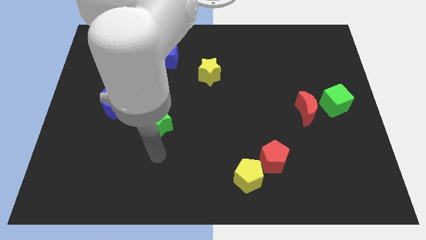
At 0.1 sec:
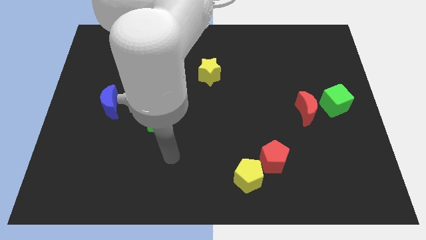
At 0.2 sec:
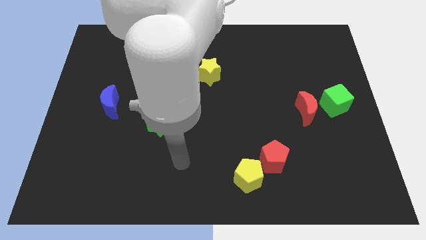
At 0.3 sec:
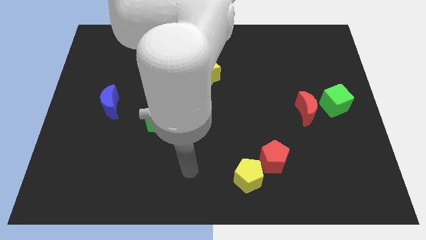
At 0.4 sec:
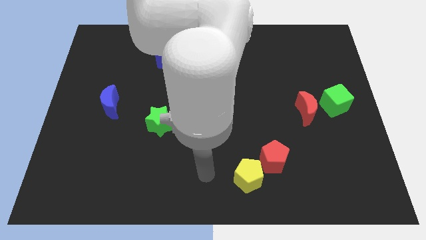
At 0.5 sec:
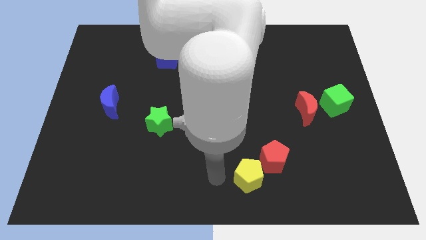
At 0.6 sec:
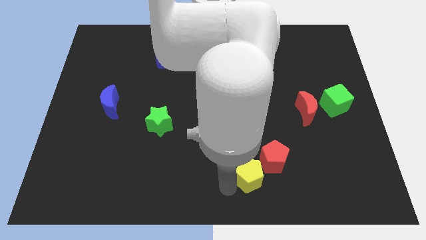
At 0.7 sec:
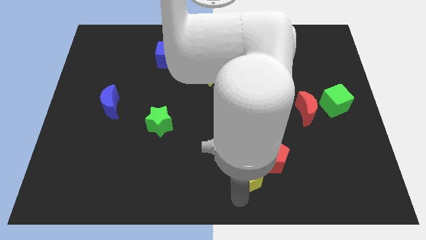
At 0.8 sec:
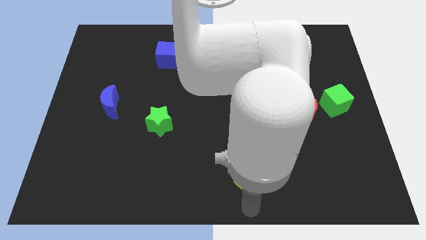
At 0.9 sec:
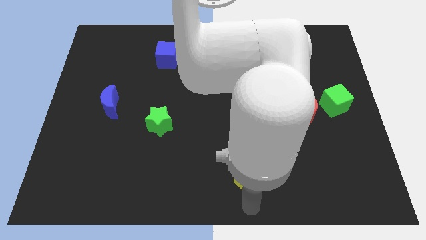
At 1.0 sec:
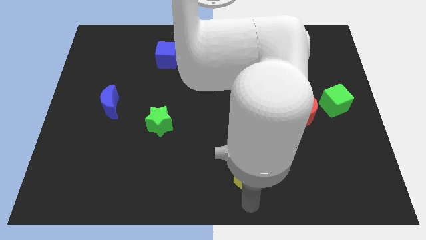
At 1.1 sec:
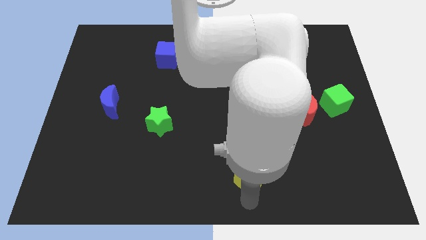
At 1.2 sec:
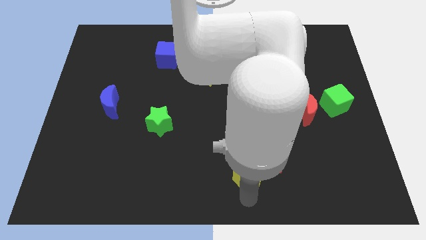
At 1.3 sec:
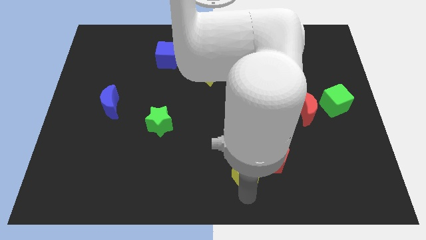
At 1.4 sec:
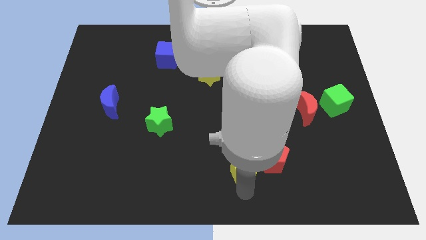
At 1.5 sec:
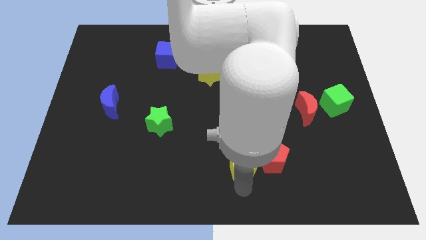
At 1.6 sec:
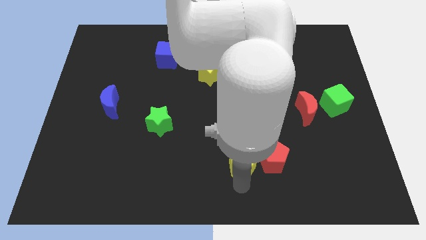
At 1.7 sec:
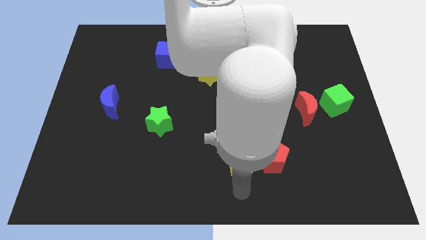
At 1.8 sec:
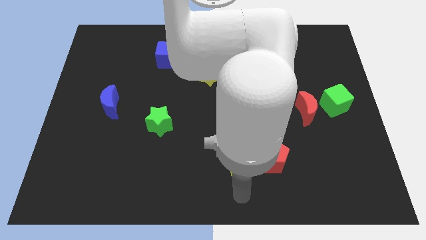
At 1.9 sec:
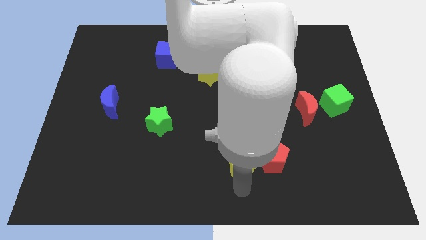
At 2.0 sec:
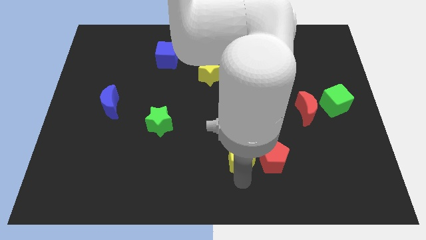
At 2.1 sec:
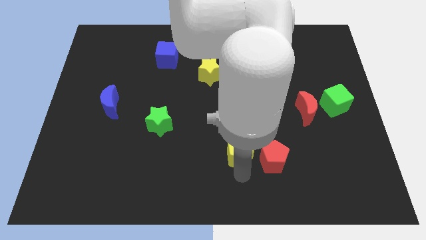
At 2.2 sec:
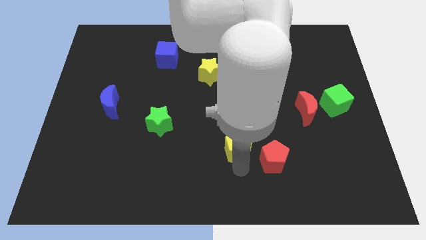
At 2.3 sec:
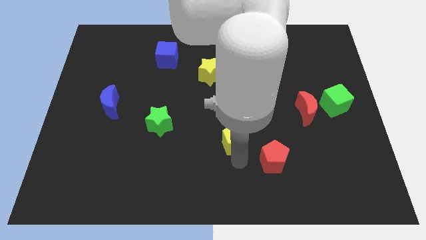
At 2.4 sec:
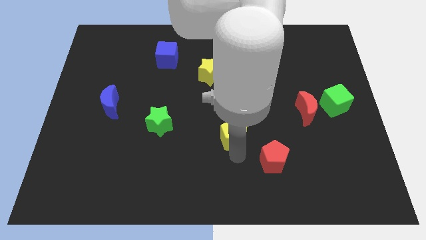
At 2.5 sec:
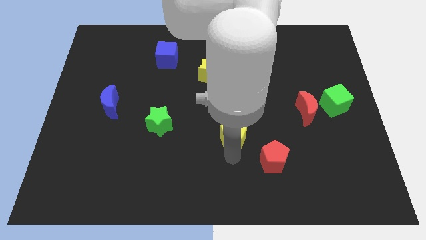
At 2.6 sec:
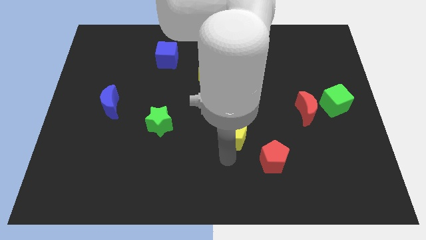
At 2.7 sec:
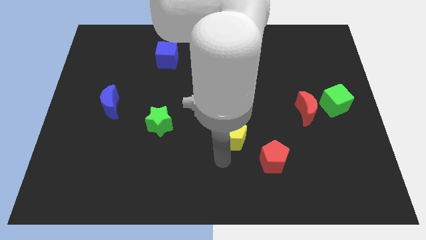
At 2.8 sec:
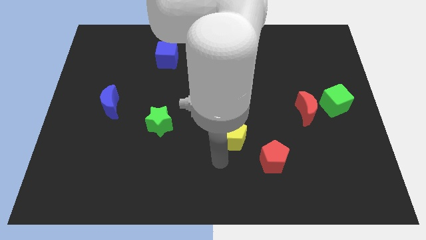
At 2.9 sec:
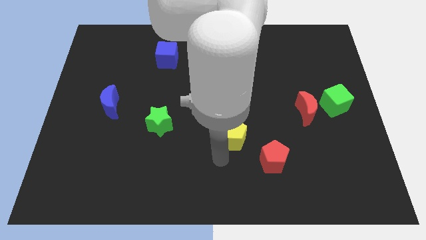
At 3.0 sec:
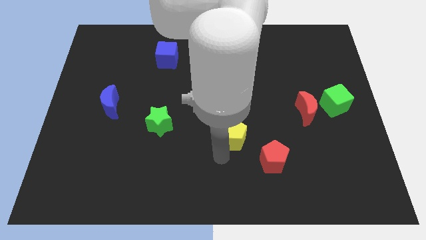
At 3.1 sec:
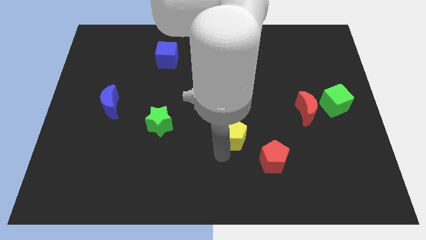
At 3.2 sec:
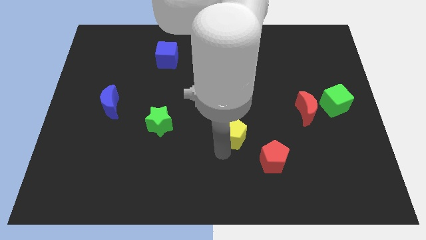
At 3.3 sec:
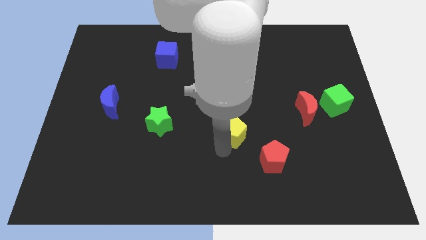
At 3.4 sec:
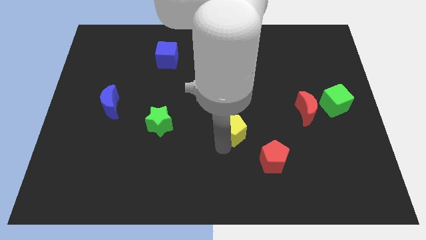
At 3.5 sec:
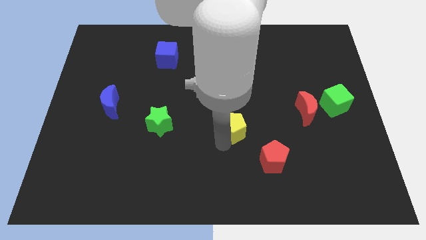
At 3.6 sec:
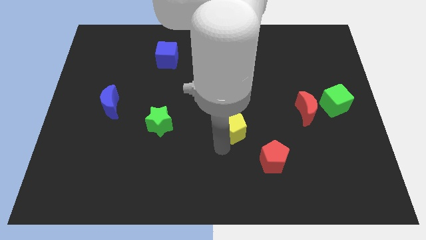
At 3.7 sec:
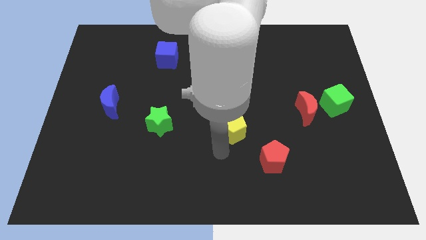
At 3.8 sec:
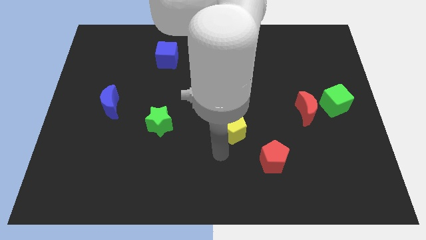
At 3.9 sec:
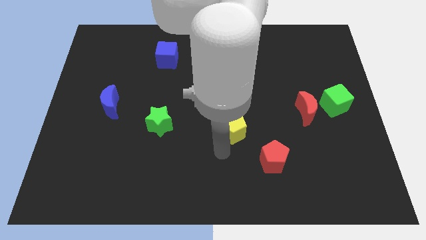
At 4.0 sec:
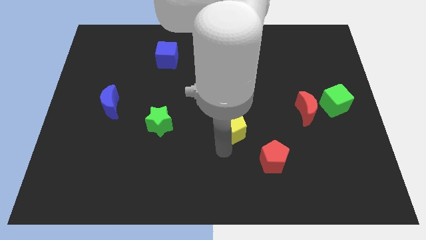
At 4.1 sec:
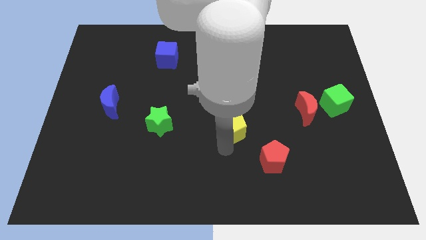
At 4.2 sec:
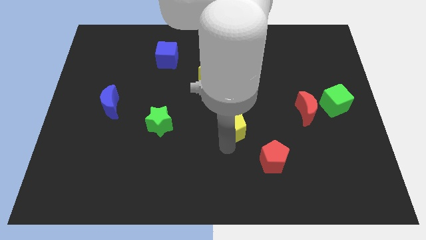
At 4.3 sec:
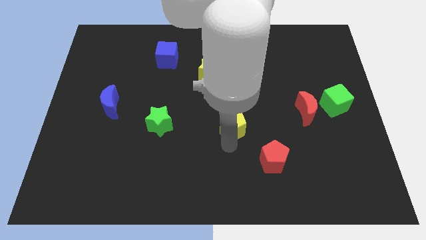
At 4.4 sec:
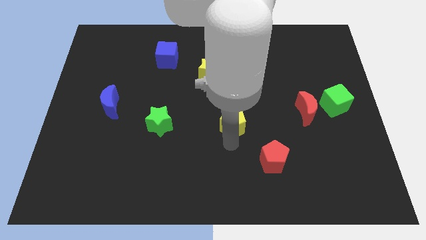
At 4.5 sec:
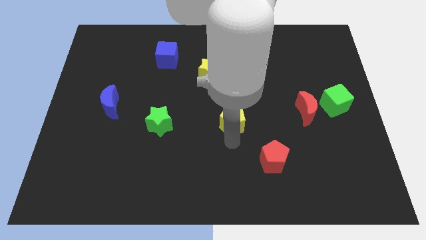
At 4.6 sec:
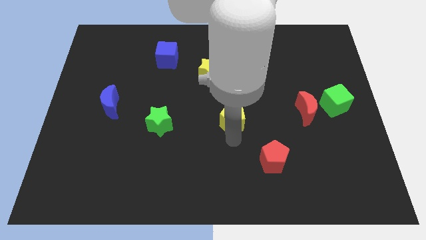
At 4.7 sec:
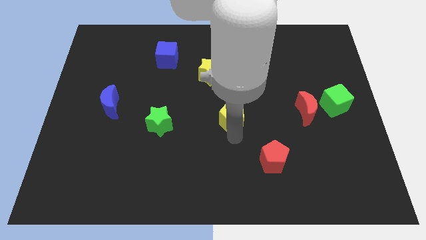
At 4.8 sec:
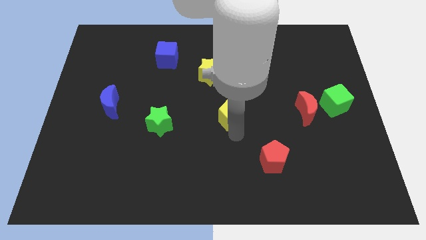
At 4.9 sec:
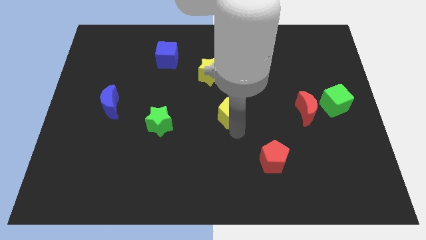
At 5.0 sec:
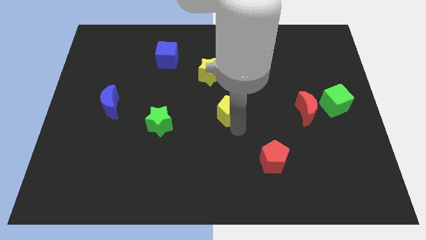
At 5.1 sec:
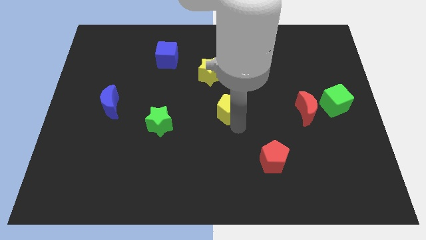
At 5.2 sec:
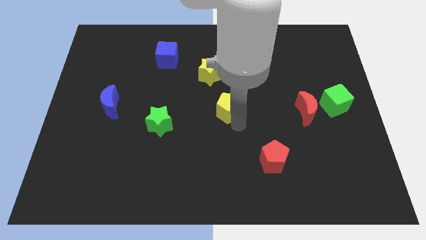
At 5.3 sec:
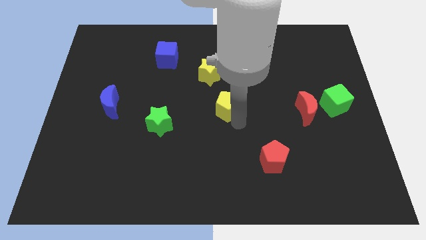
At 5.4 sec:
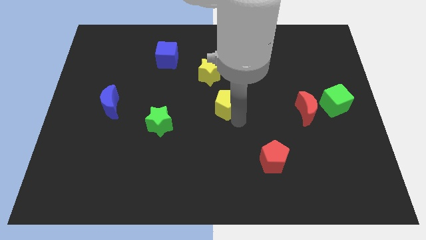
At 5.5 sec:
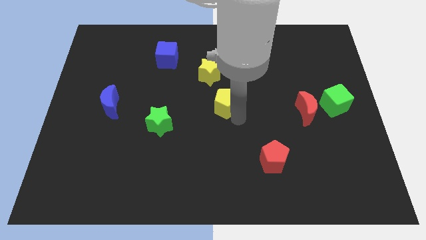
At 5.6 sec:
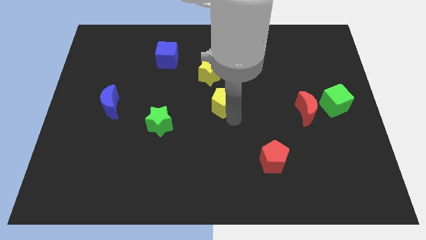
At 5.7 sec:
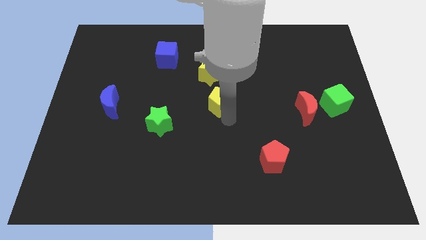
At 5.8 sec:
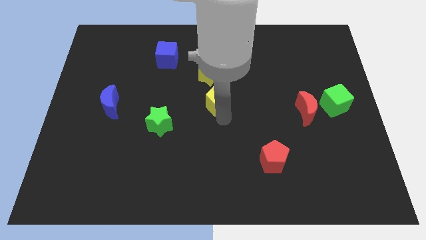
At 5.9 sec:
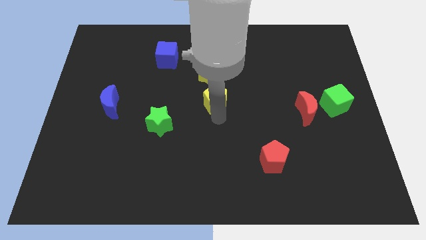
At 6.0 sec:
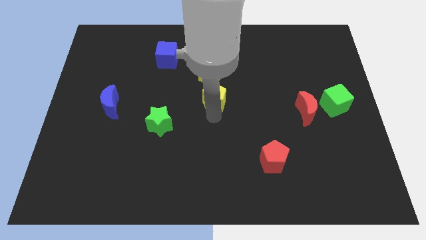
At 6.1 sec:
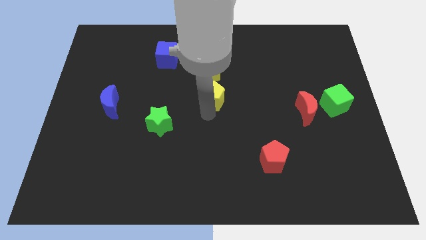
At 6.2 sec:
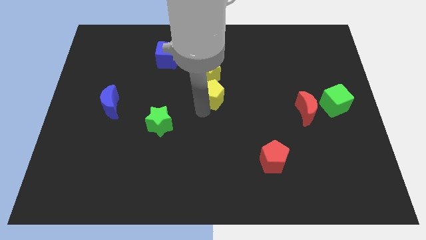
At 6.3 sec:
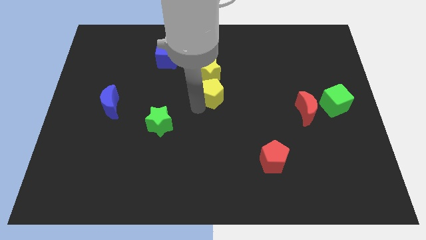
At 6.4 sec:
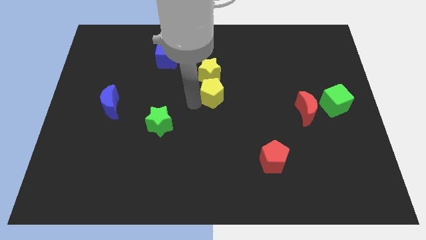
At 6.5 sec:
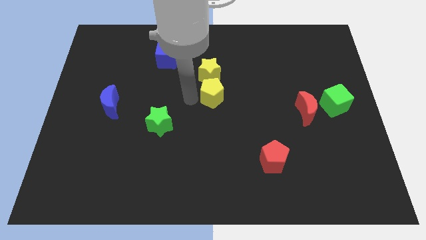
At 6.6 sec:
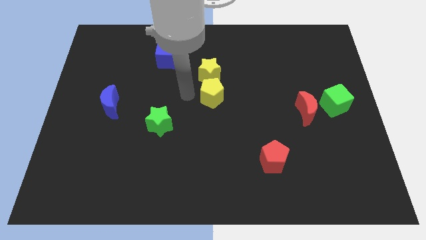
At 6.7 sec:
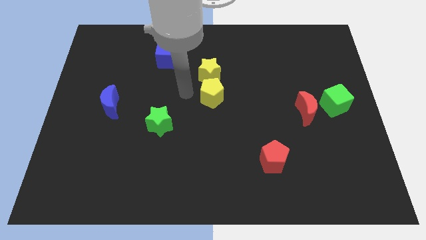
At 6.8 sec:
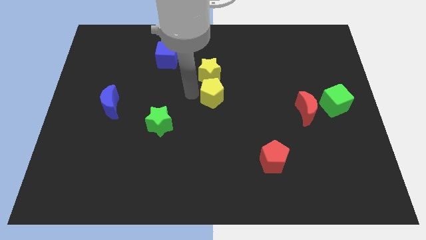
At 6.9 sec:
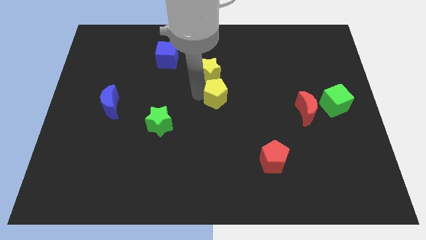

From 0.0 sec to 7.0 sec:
slide the yellow pentagon upwards

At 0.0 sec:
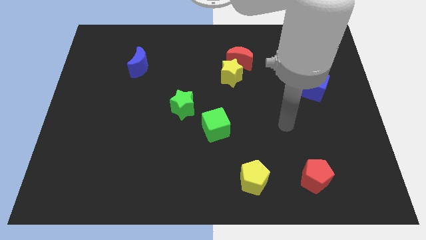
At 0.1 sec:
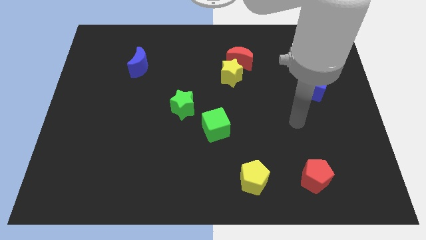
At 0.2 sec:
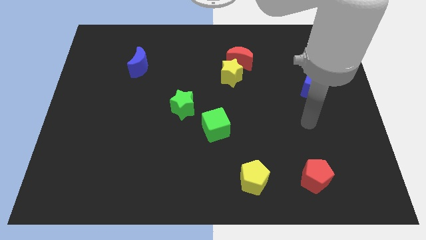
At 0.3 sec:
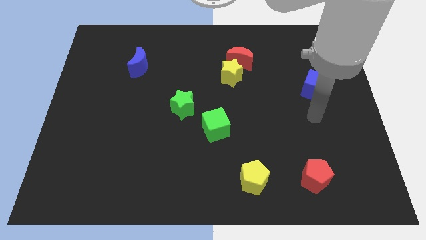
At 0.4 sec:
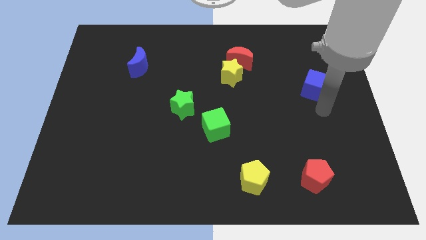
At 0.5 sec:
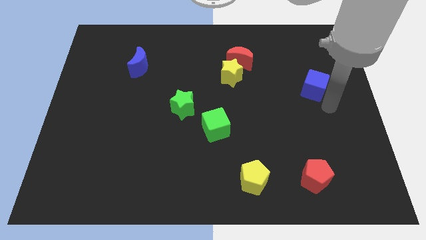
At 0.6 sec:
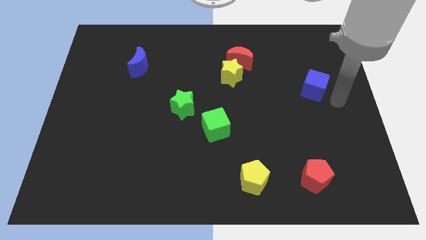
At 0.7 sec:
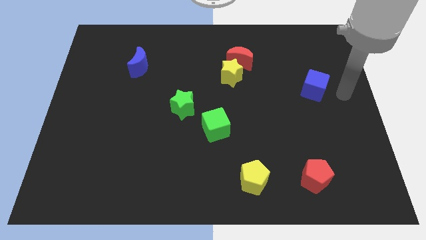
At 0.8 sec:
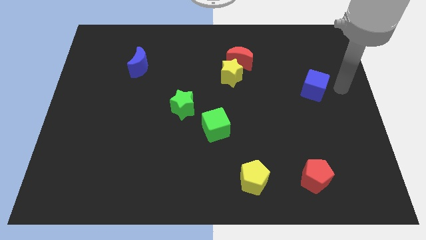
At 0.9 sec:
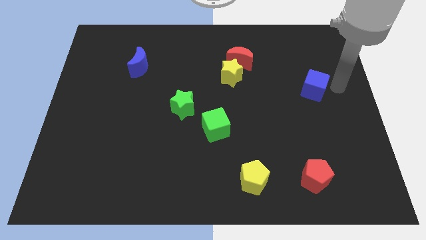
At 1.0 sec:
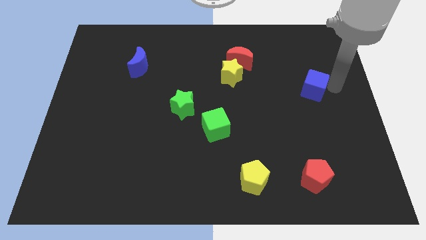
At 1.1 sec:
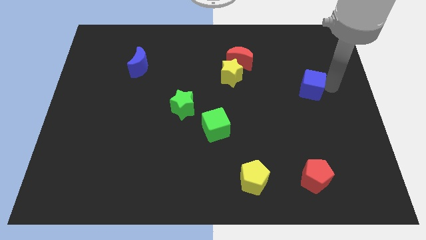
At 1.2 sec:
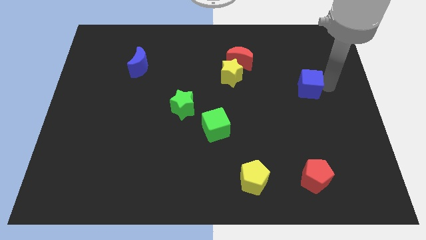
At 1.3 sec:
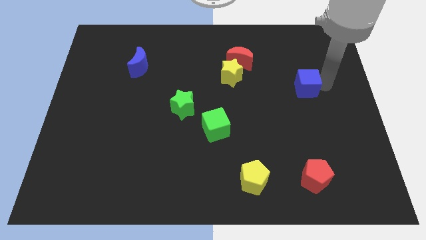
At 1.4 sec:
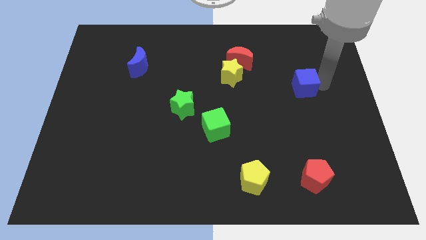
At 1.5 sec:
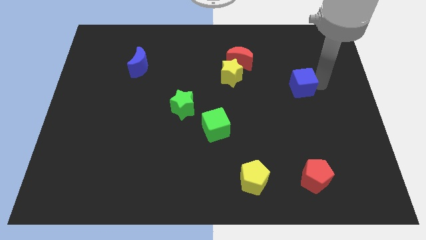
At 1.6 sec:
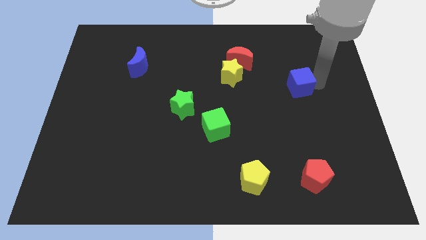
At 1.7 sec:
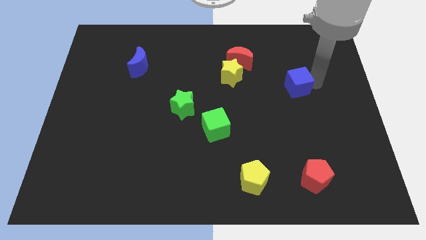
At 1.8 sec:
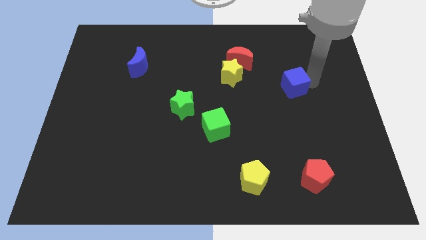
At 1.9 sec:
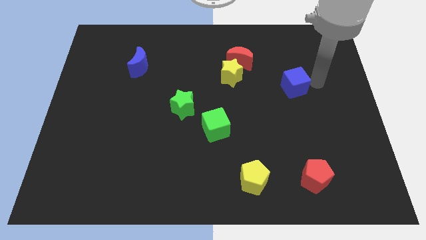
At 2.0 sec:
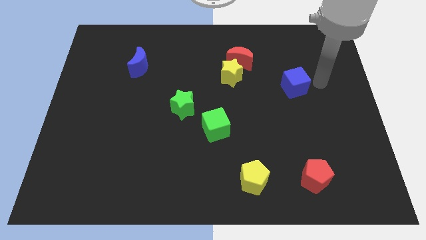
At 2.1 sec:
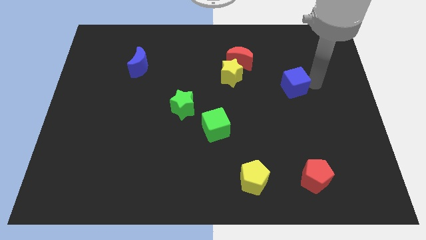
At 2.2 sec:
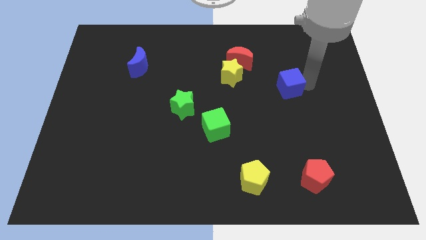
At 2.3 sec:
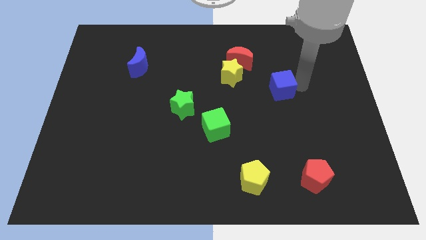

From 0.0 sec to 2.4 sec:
slightly move the blue cube left
